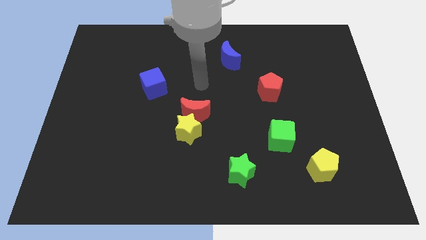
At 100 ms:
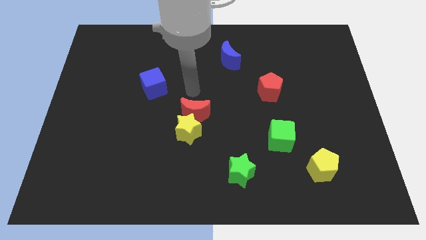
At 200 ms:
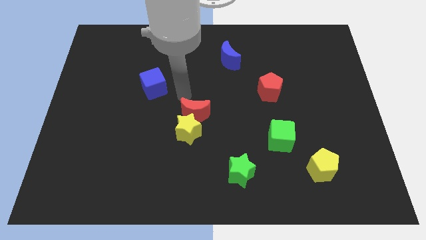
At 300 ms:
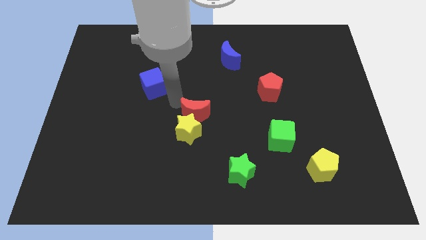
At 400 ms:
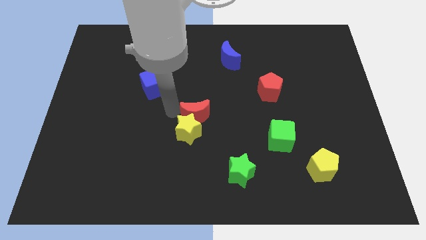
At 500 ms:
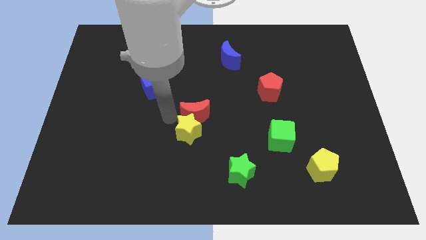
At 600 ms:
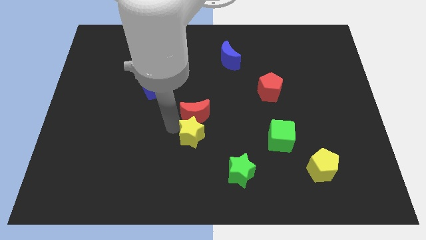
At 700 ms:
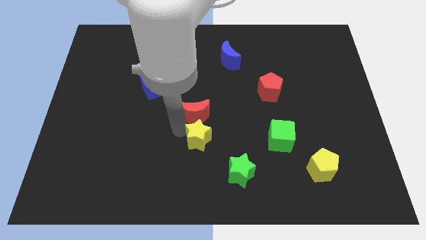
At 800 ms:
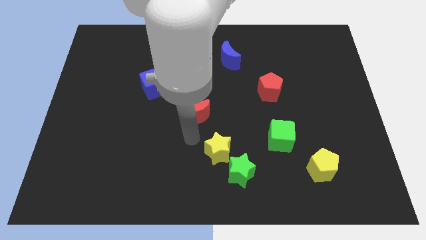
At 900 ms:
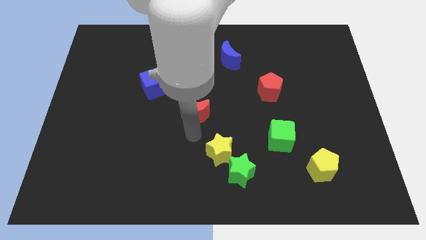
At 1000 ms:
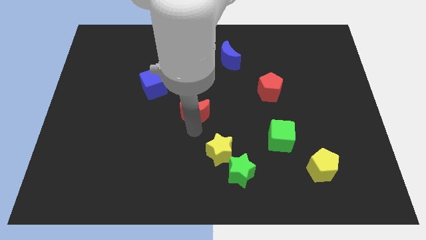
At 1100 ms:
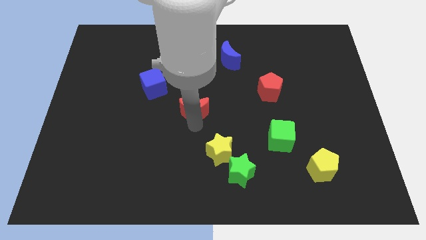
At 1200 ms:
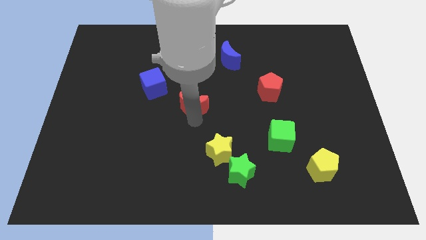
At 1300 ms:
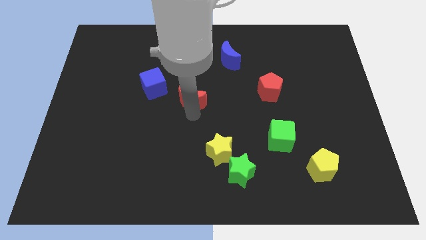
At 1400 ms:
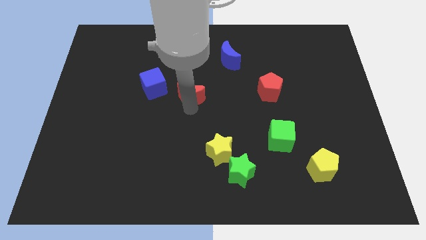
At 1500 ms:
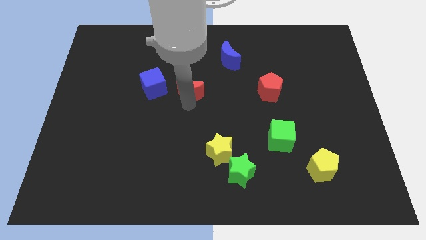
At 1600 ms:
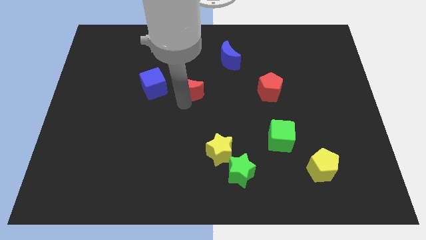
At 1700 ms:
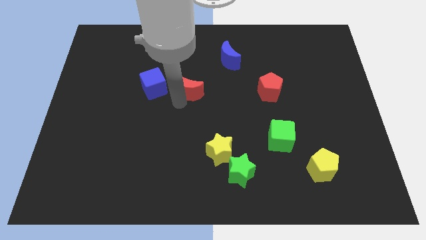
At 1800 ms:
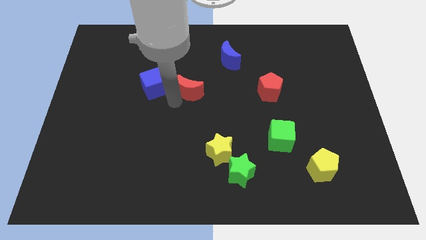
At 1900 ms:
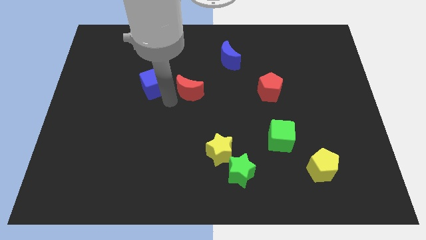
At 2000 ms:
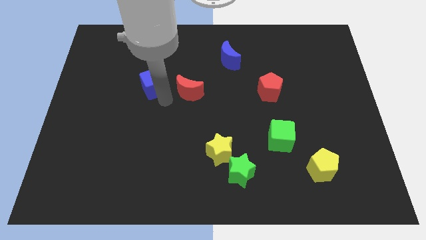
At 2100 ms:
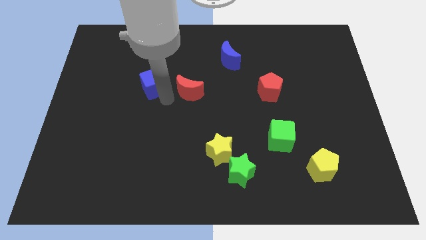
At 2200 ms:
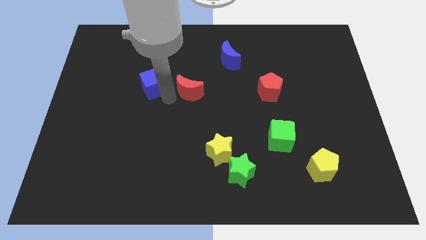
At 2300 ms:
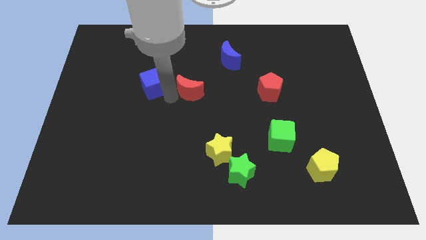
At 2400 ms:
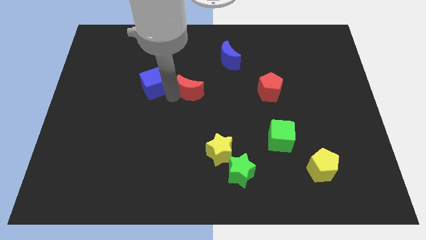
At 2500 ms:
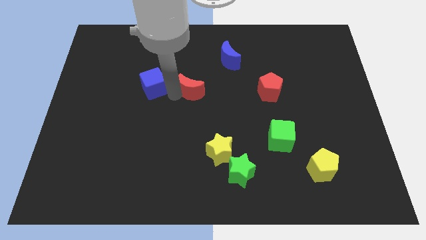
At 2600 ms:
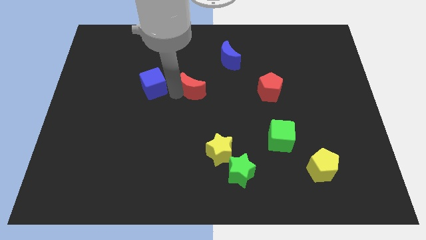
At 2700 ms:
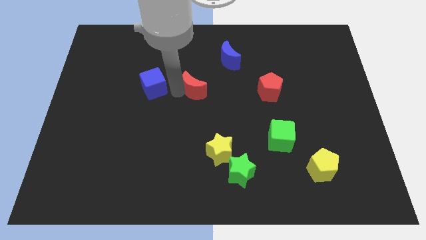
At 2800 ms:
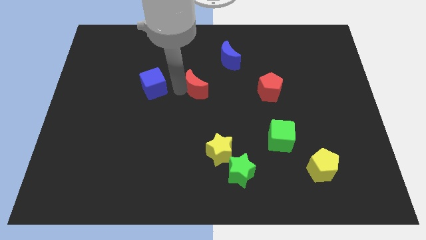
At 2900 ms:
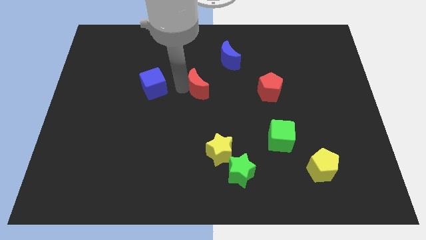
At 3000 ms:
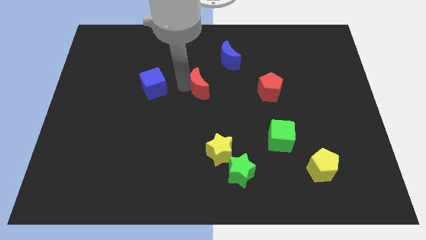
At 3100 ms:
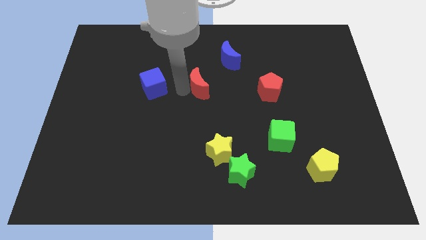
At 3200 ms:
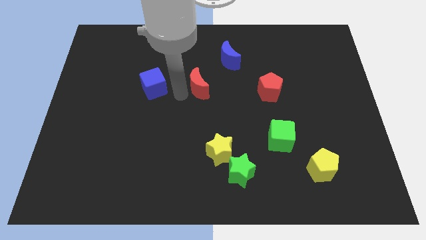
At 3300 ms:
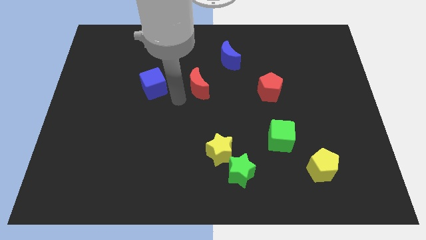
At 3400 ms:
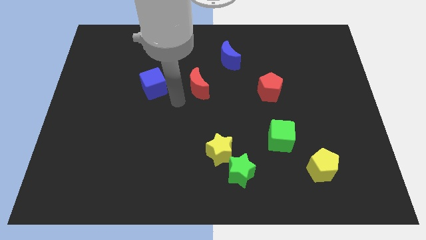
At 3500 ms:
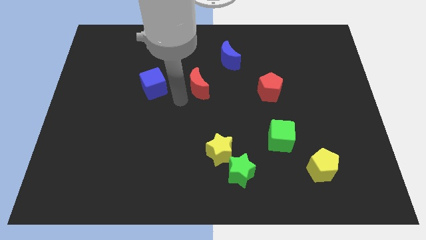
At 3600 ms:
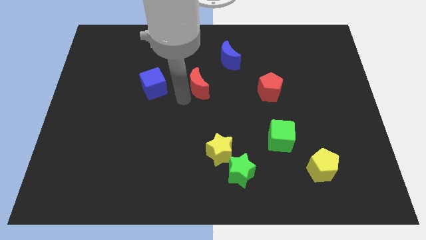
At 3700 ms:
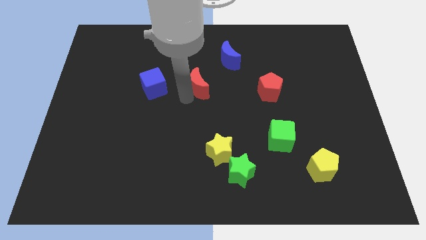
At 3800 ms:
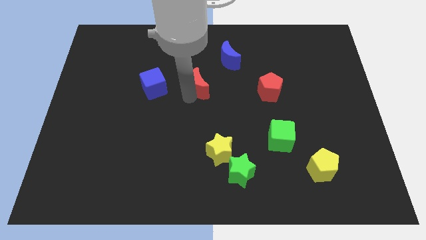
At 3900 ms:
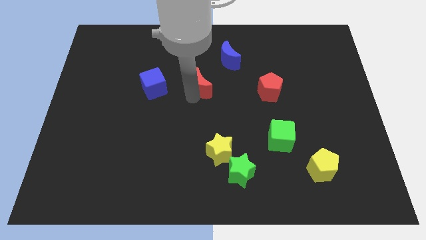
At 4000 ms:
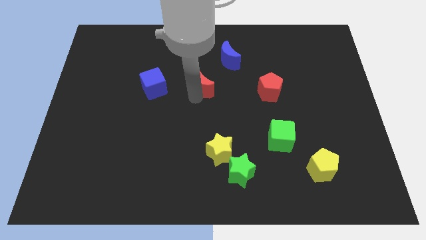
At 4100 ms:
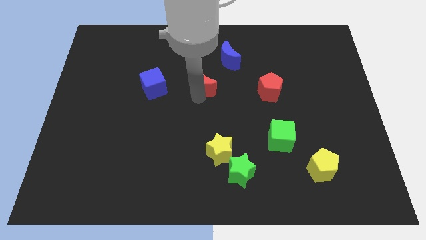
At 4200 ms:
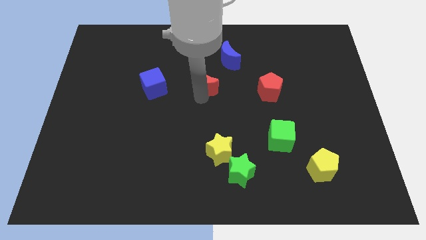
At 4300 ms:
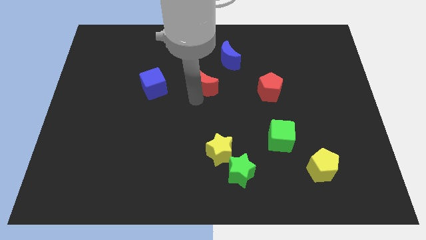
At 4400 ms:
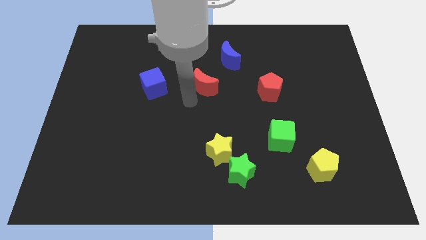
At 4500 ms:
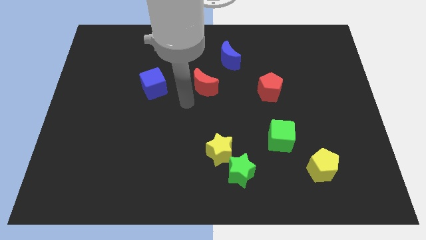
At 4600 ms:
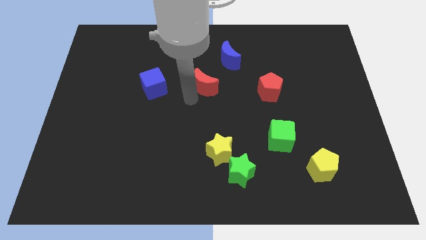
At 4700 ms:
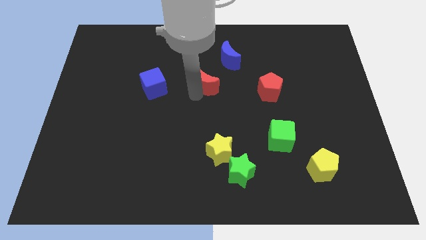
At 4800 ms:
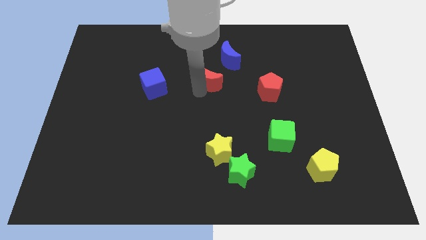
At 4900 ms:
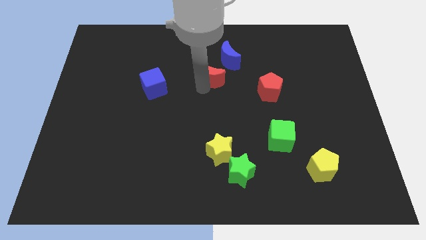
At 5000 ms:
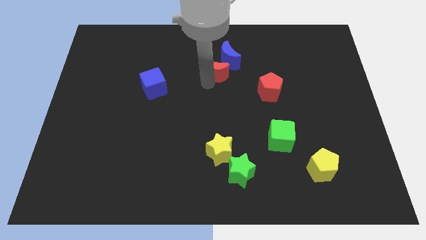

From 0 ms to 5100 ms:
put the red moon towards the blue moon

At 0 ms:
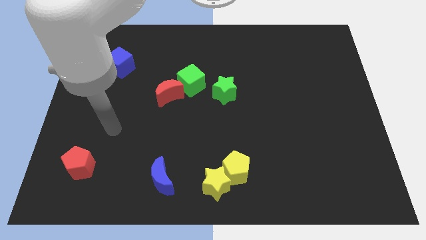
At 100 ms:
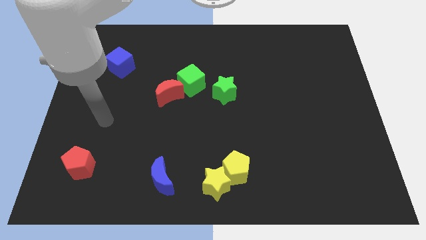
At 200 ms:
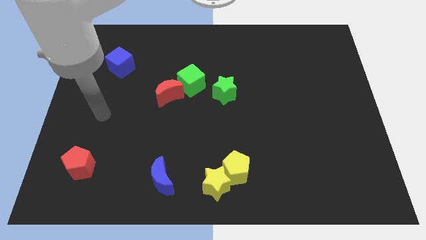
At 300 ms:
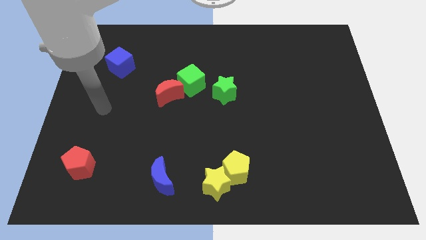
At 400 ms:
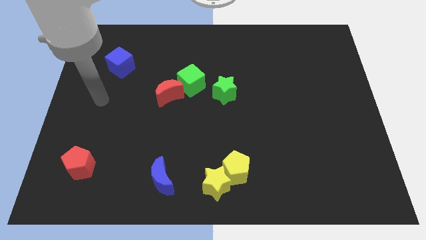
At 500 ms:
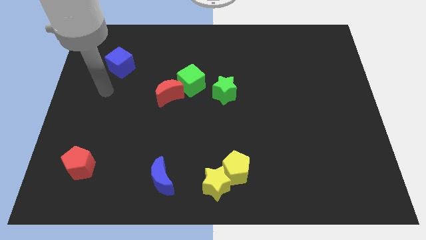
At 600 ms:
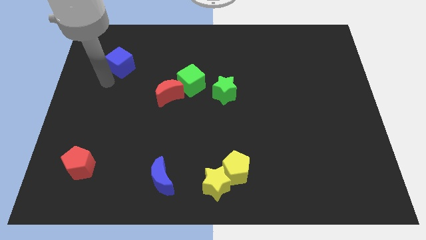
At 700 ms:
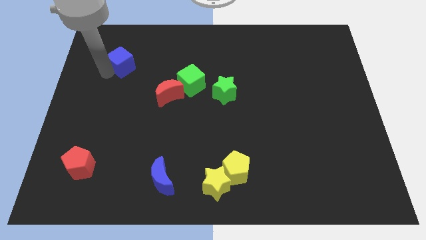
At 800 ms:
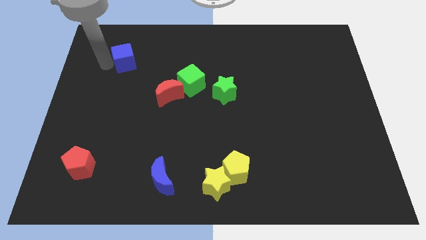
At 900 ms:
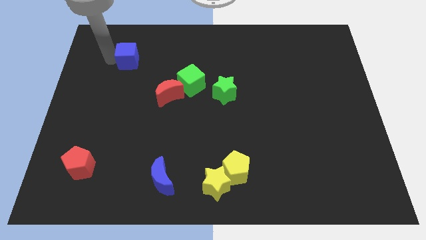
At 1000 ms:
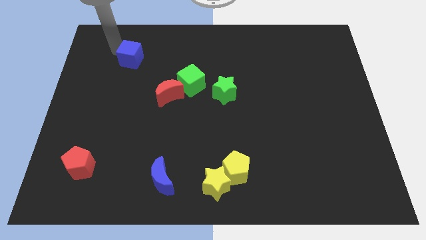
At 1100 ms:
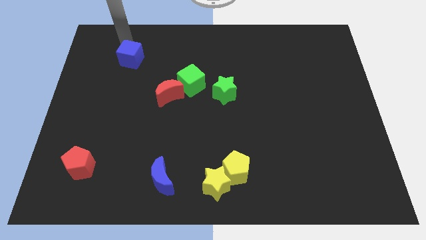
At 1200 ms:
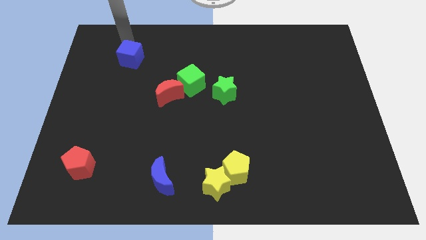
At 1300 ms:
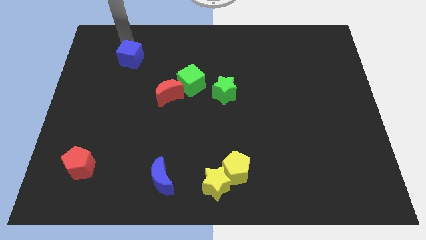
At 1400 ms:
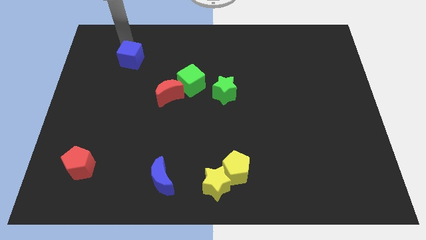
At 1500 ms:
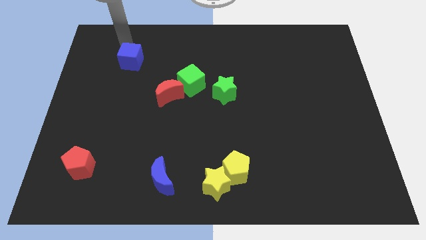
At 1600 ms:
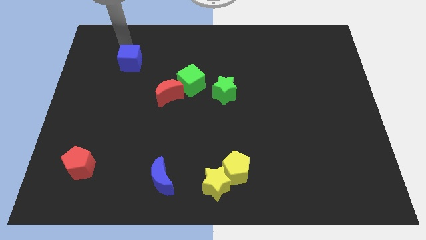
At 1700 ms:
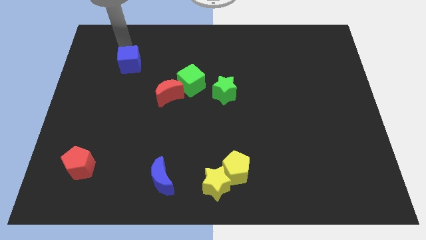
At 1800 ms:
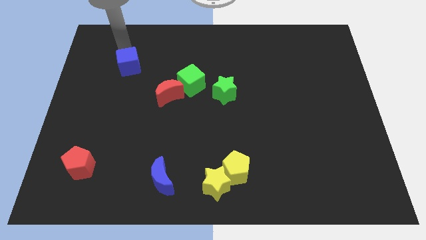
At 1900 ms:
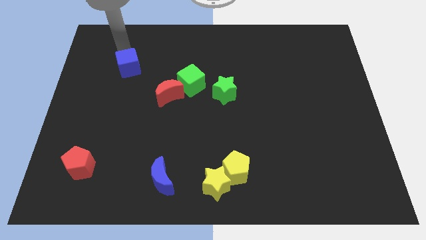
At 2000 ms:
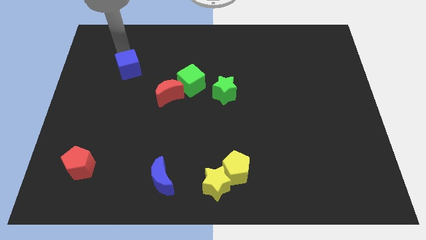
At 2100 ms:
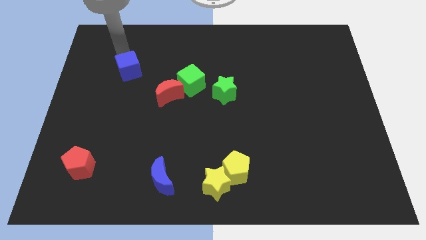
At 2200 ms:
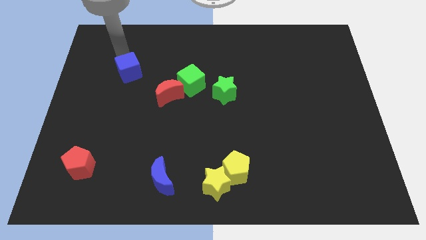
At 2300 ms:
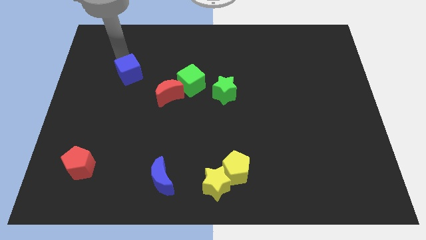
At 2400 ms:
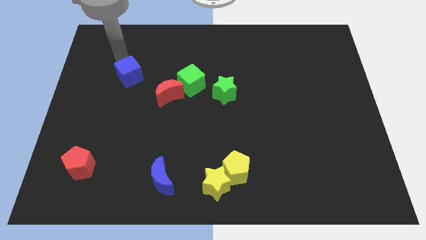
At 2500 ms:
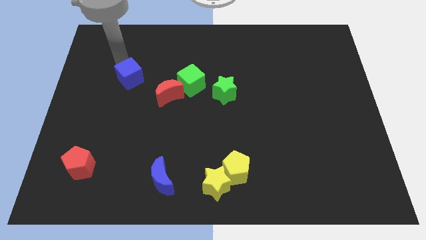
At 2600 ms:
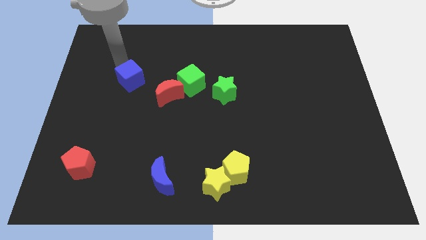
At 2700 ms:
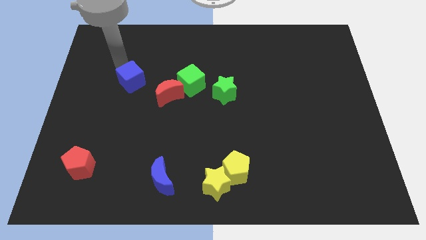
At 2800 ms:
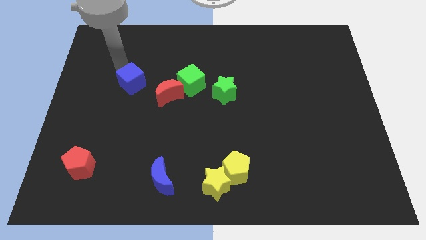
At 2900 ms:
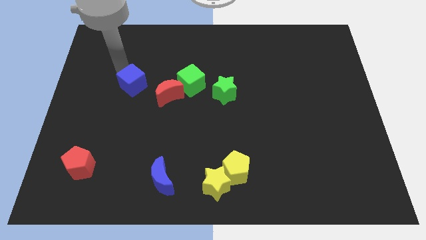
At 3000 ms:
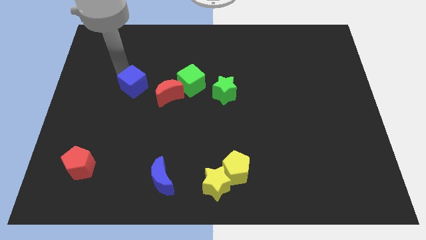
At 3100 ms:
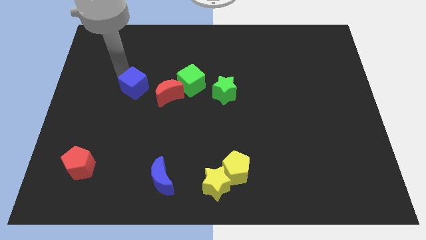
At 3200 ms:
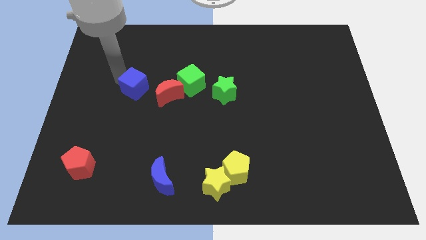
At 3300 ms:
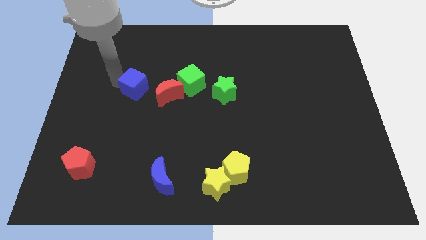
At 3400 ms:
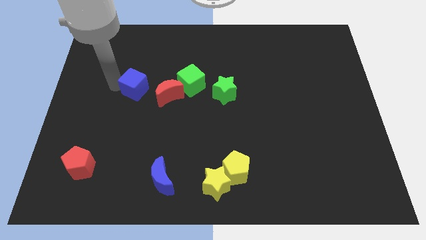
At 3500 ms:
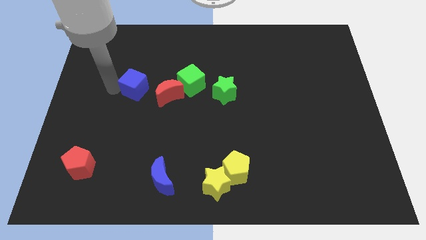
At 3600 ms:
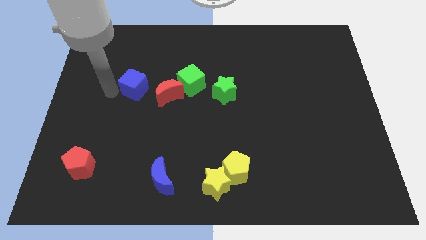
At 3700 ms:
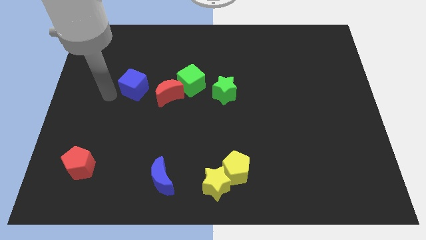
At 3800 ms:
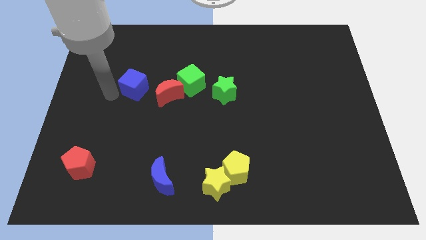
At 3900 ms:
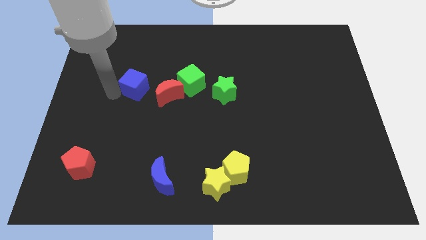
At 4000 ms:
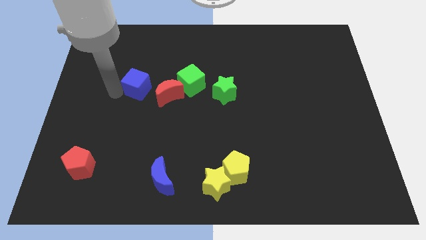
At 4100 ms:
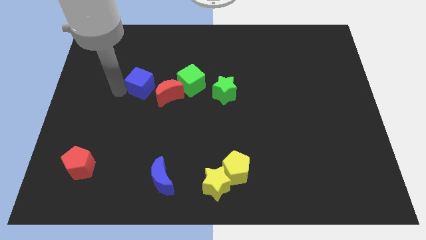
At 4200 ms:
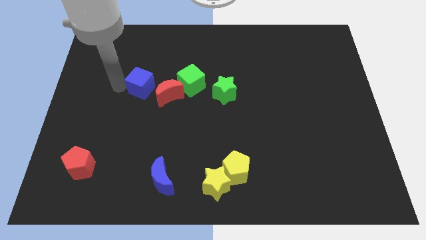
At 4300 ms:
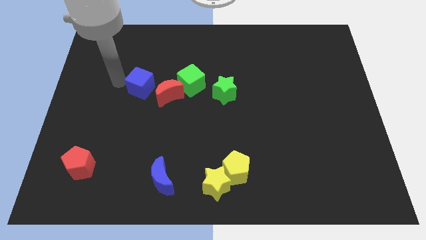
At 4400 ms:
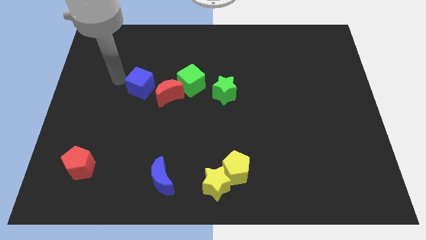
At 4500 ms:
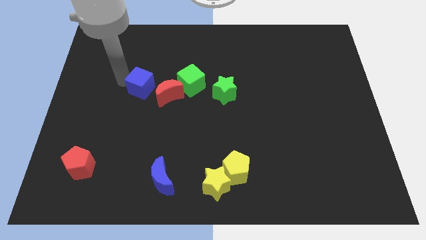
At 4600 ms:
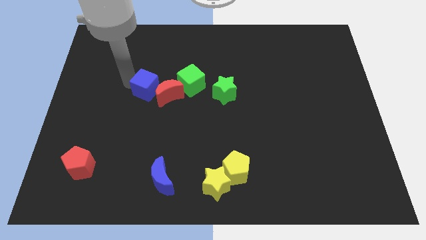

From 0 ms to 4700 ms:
push the blue cube next to the red moon
